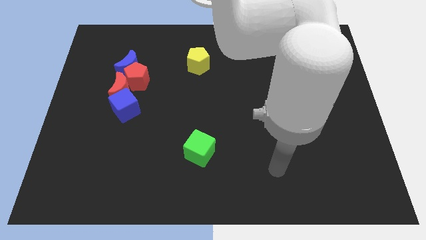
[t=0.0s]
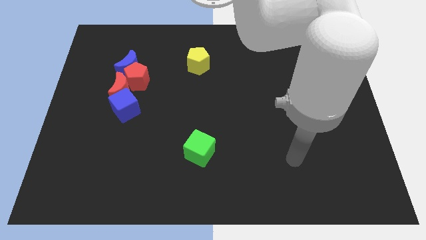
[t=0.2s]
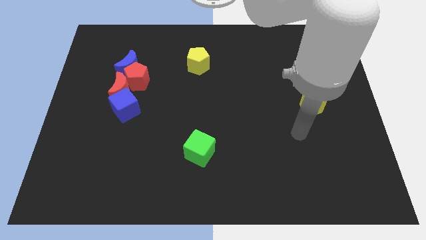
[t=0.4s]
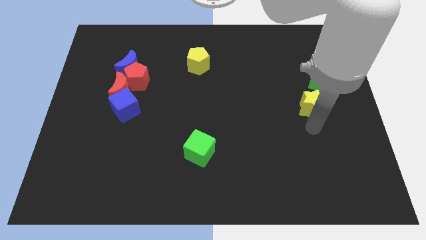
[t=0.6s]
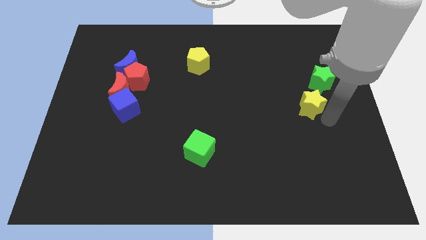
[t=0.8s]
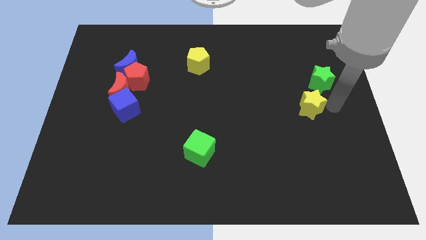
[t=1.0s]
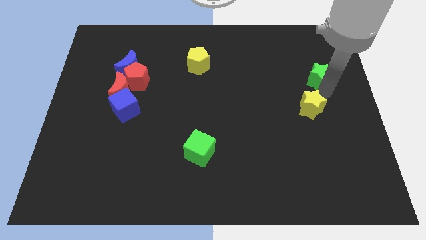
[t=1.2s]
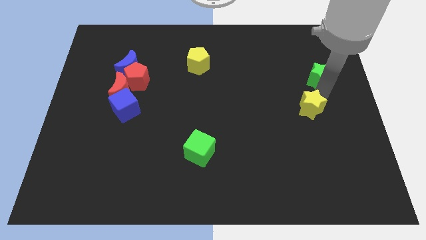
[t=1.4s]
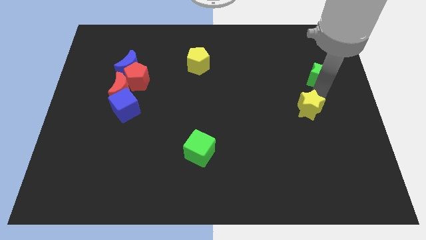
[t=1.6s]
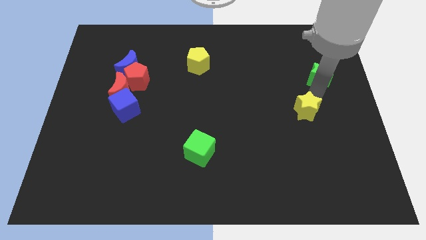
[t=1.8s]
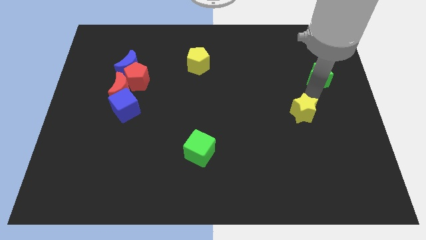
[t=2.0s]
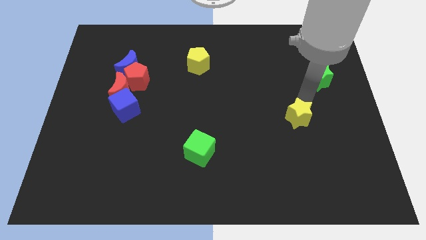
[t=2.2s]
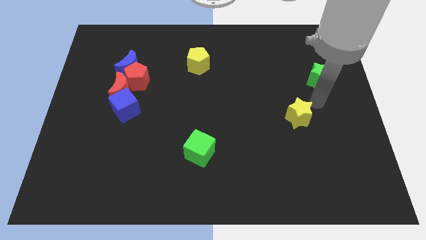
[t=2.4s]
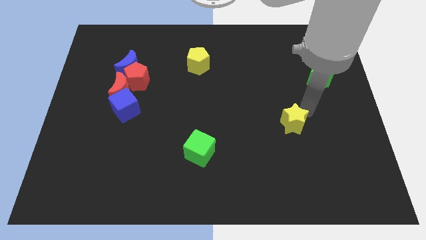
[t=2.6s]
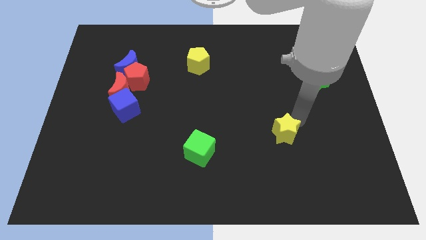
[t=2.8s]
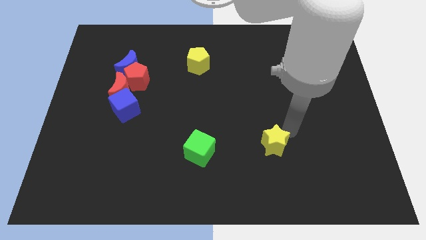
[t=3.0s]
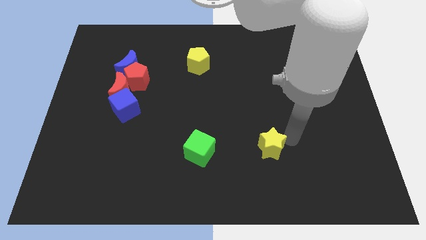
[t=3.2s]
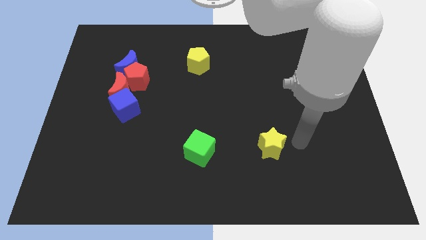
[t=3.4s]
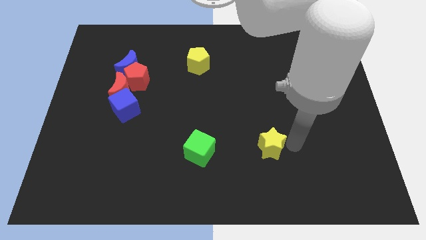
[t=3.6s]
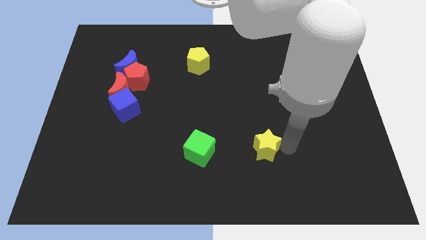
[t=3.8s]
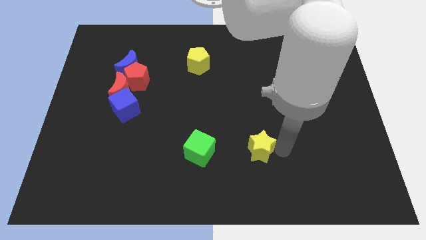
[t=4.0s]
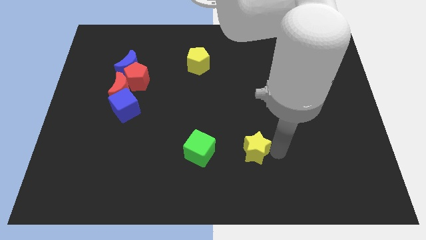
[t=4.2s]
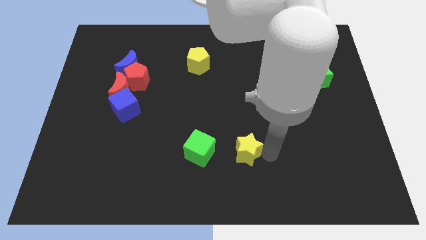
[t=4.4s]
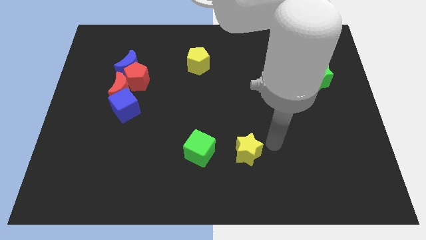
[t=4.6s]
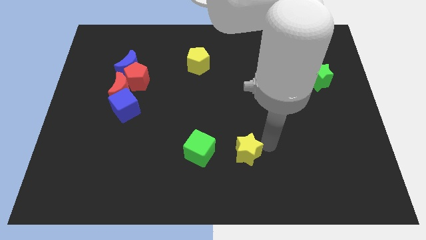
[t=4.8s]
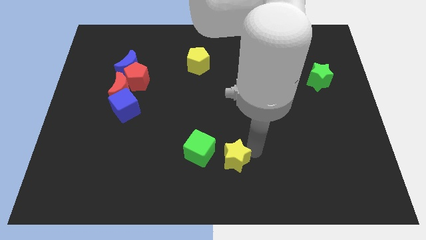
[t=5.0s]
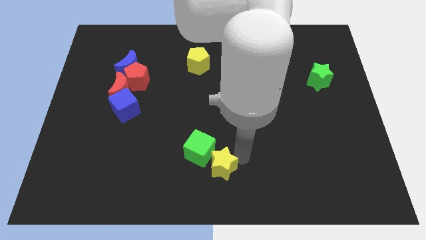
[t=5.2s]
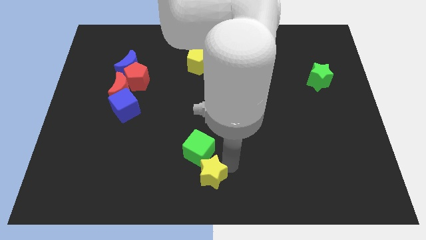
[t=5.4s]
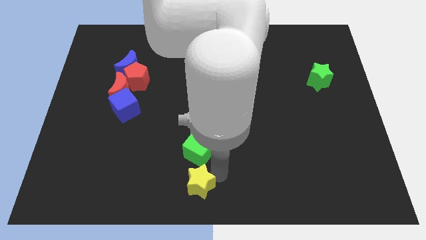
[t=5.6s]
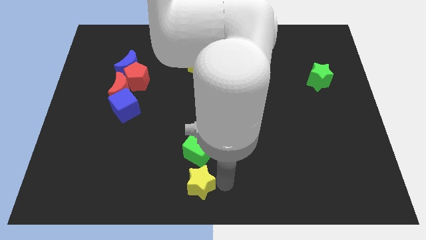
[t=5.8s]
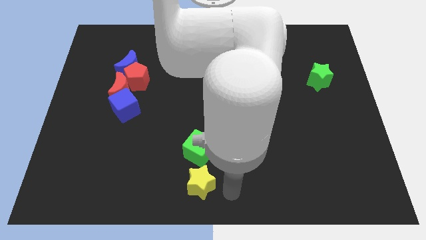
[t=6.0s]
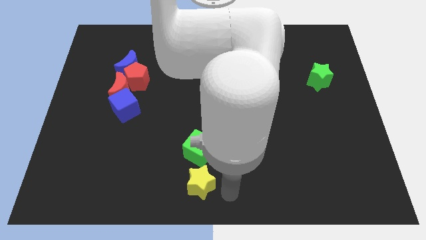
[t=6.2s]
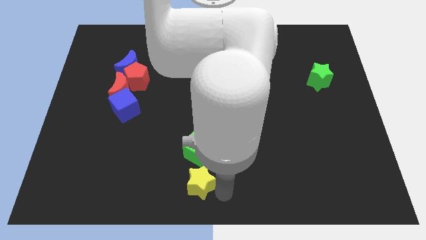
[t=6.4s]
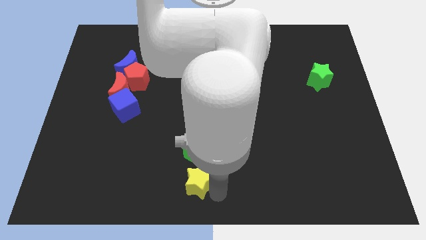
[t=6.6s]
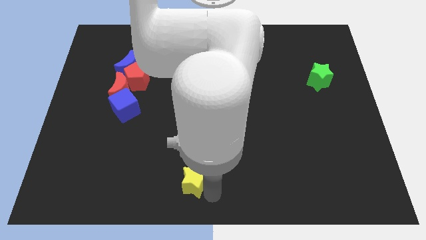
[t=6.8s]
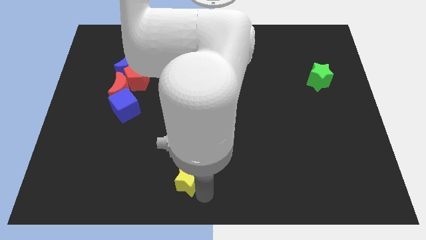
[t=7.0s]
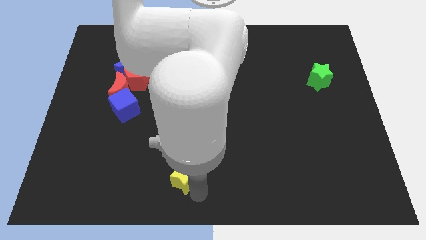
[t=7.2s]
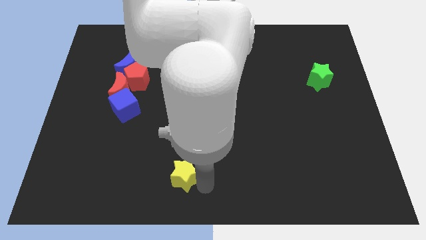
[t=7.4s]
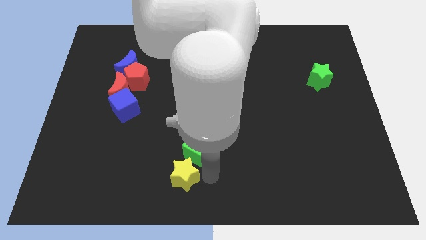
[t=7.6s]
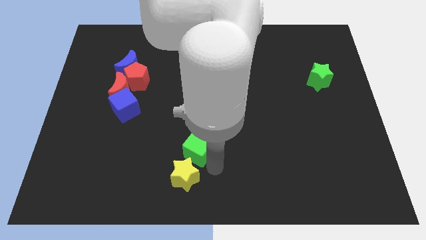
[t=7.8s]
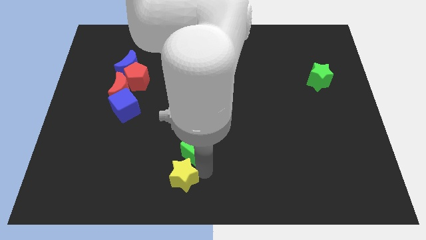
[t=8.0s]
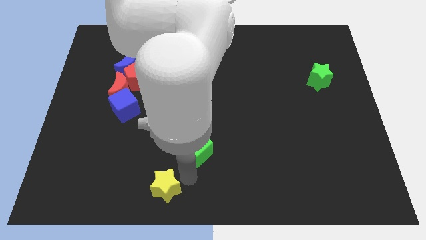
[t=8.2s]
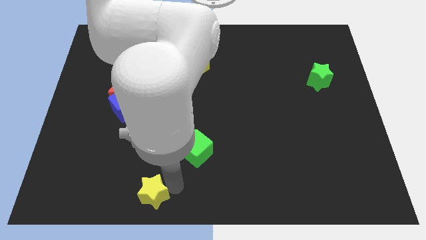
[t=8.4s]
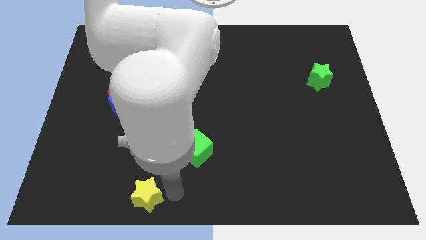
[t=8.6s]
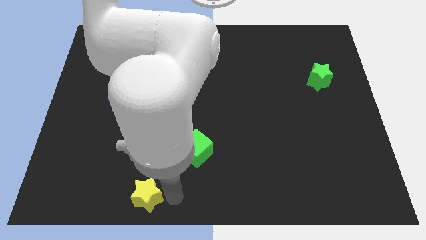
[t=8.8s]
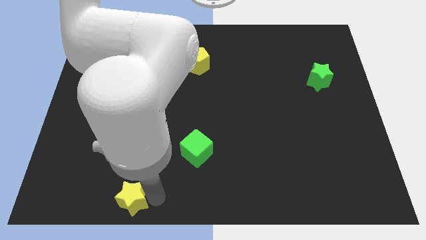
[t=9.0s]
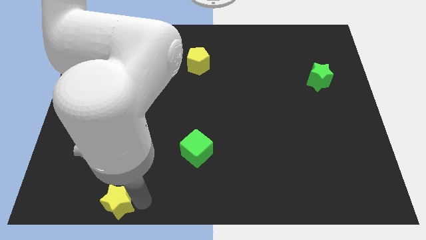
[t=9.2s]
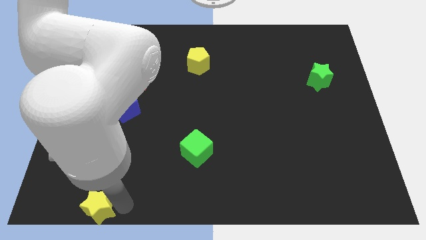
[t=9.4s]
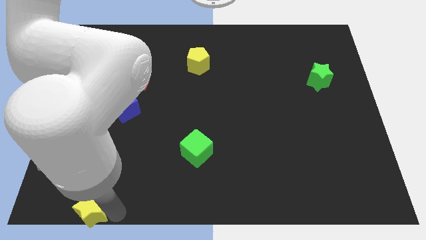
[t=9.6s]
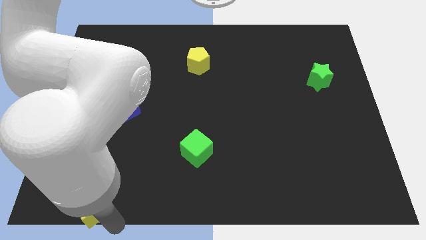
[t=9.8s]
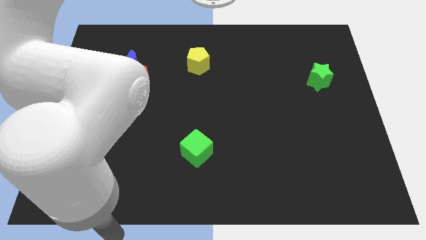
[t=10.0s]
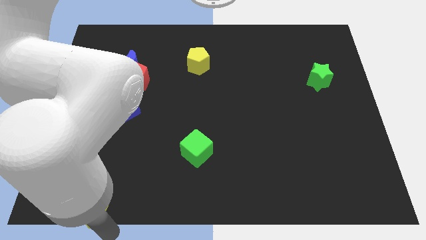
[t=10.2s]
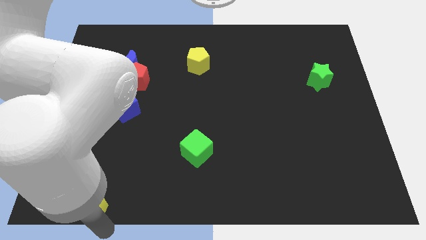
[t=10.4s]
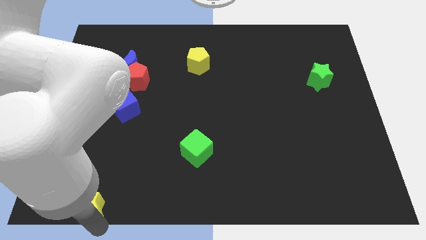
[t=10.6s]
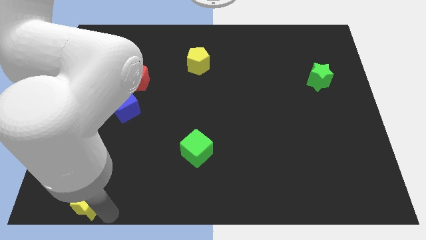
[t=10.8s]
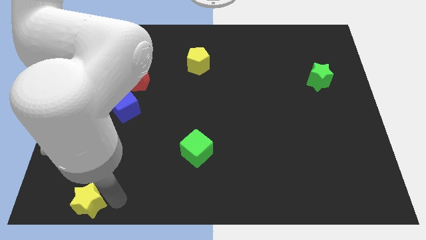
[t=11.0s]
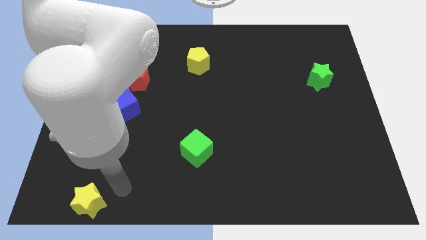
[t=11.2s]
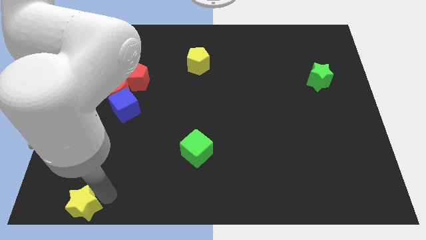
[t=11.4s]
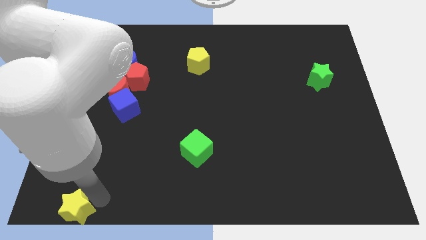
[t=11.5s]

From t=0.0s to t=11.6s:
put the yellow star to the bottom left corner

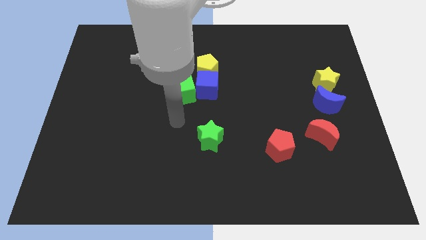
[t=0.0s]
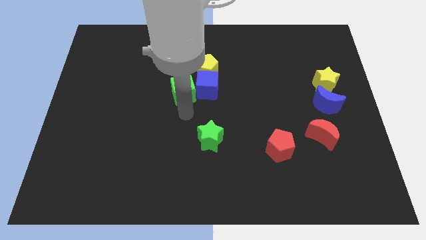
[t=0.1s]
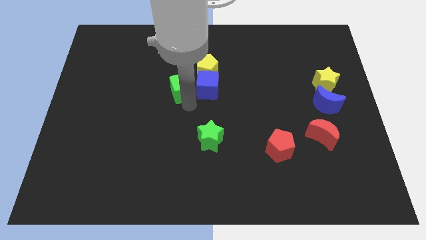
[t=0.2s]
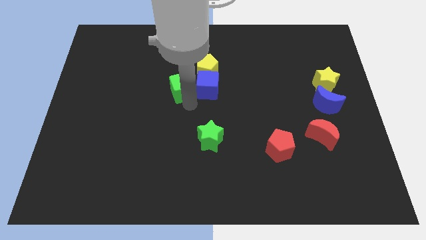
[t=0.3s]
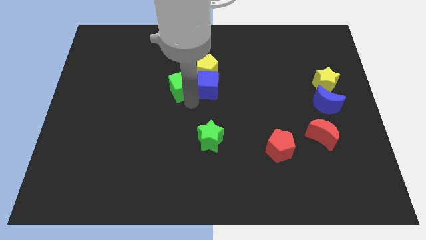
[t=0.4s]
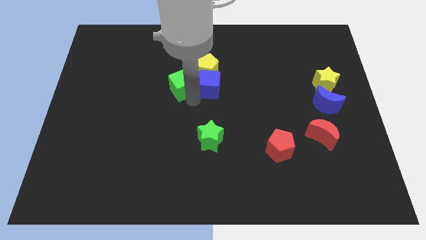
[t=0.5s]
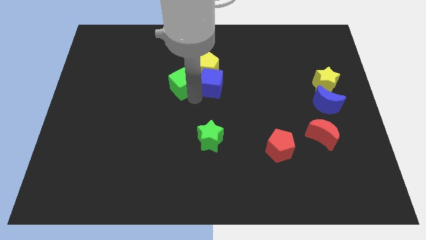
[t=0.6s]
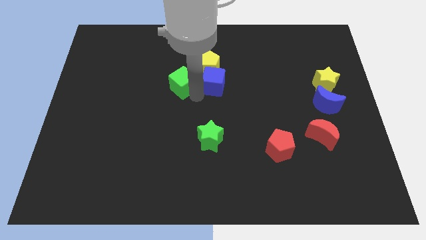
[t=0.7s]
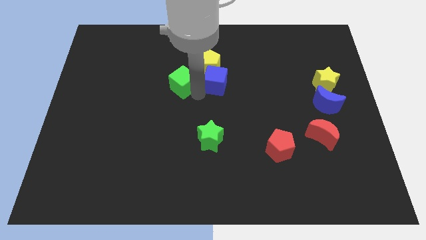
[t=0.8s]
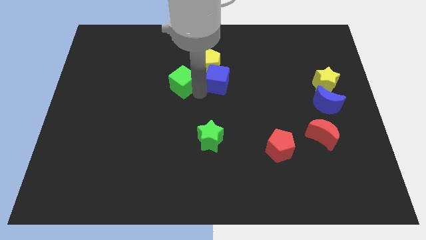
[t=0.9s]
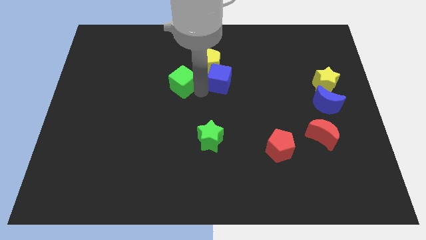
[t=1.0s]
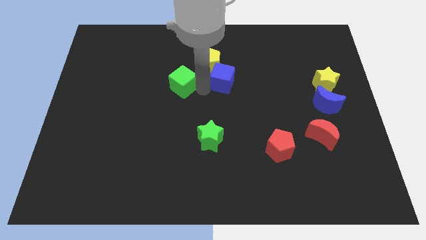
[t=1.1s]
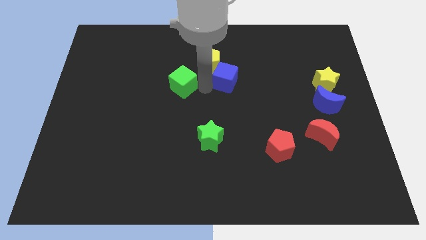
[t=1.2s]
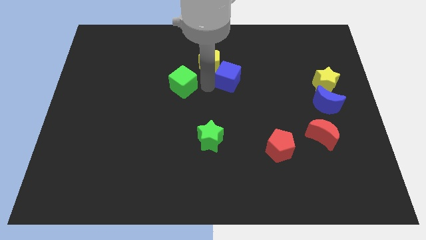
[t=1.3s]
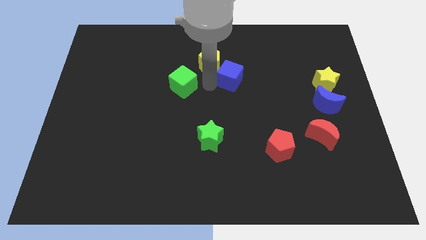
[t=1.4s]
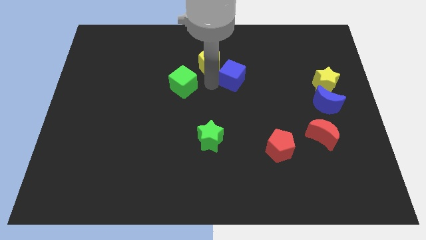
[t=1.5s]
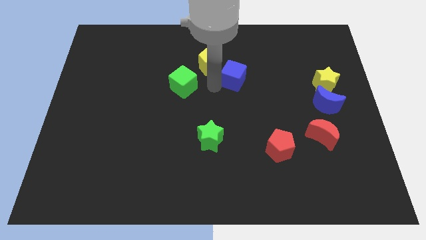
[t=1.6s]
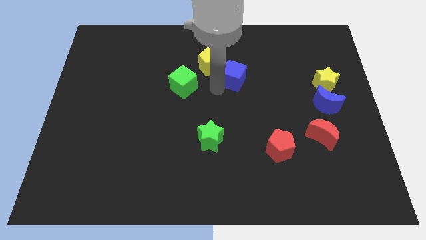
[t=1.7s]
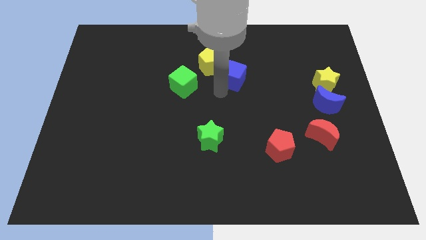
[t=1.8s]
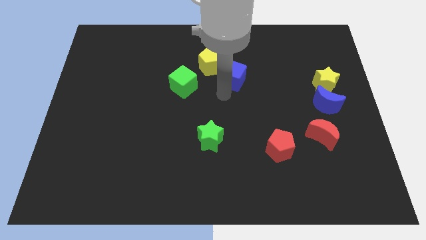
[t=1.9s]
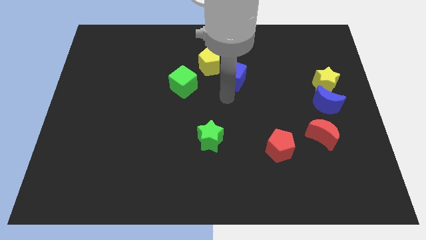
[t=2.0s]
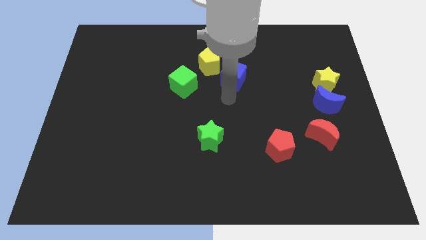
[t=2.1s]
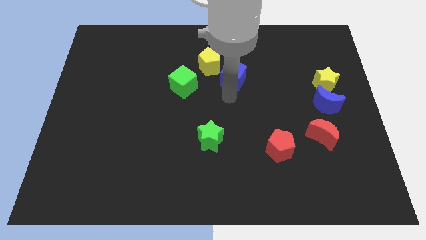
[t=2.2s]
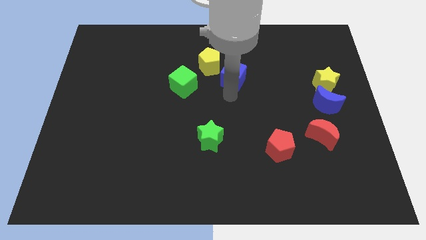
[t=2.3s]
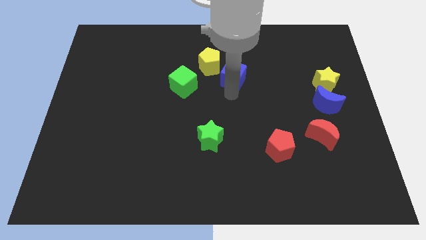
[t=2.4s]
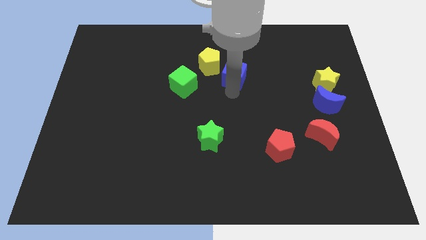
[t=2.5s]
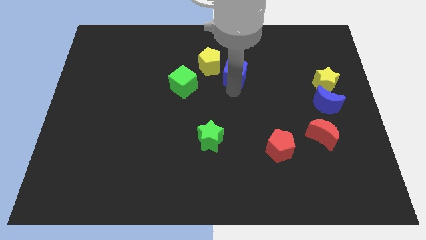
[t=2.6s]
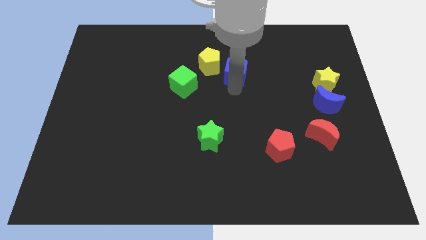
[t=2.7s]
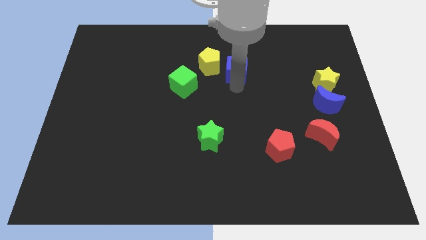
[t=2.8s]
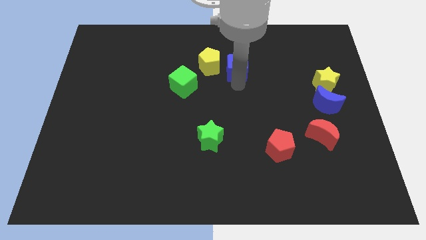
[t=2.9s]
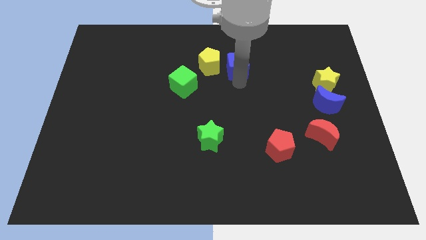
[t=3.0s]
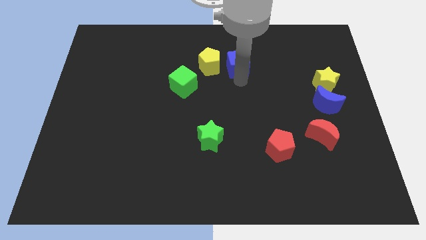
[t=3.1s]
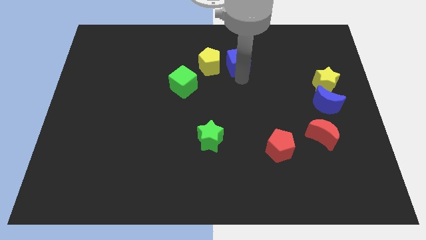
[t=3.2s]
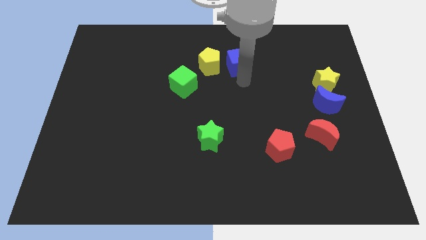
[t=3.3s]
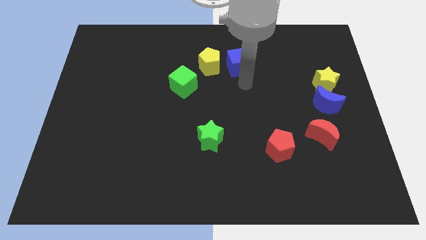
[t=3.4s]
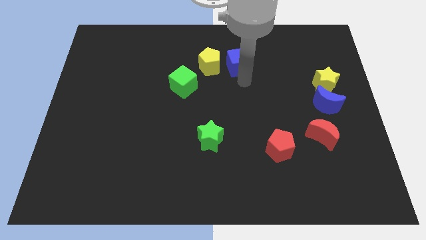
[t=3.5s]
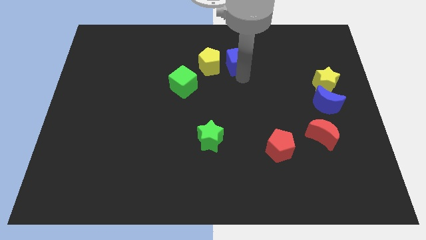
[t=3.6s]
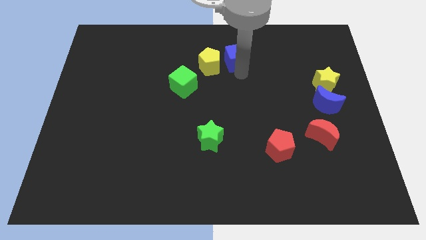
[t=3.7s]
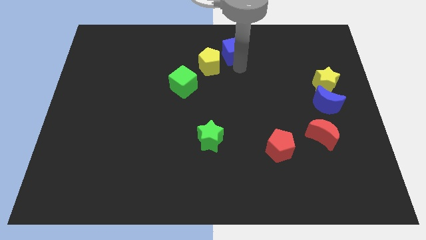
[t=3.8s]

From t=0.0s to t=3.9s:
slide the blue cube to the top
